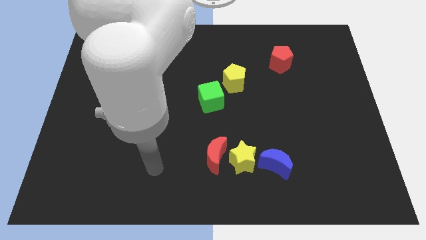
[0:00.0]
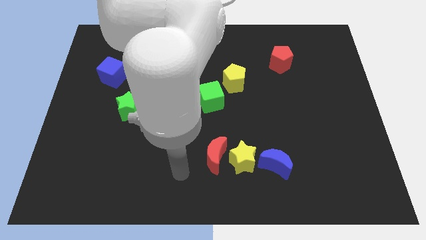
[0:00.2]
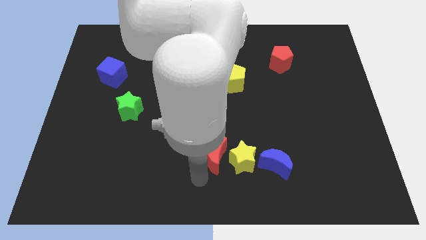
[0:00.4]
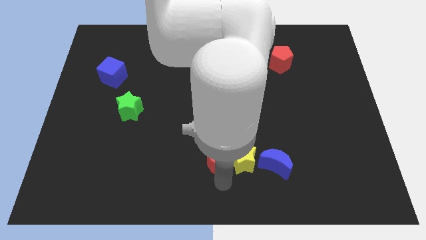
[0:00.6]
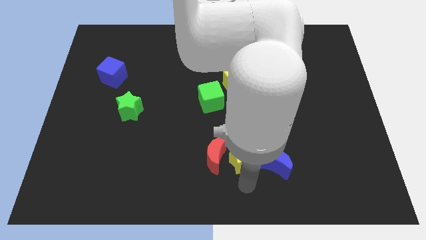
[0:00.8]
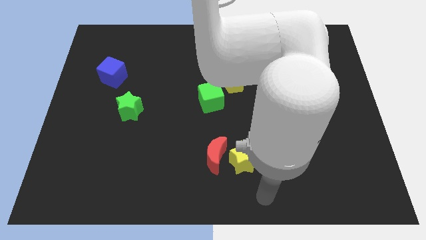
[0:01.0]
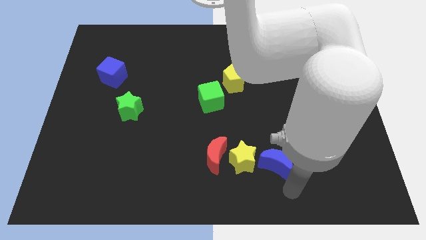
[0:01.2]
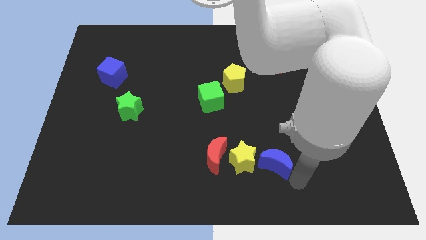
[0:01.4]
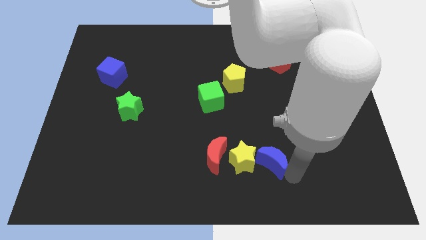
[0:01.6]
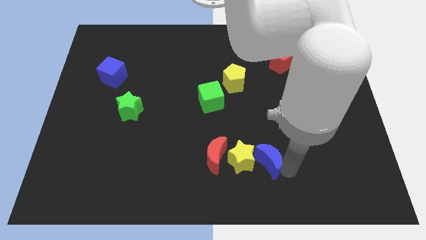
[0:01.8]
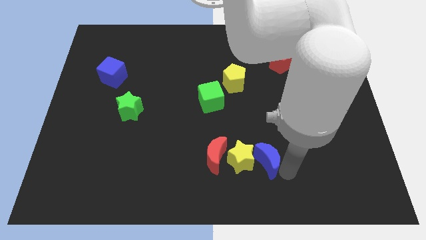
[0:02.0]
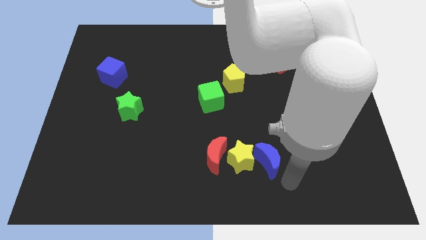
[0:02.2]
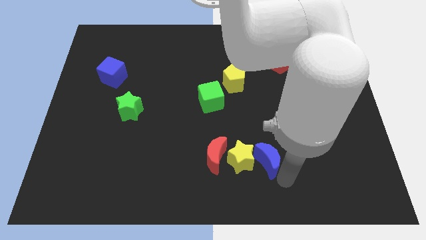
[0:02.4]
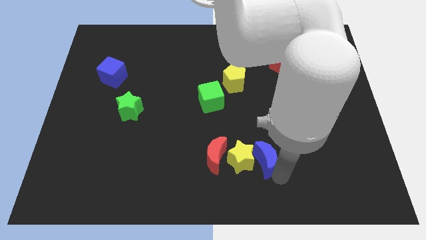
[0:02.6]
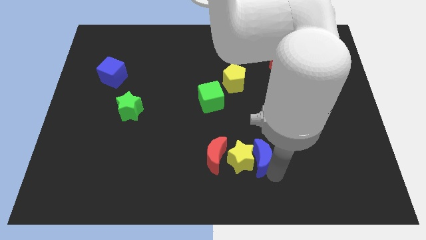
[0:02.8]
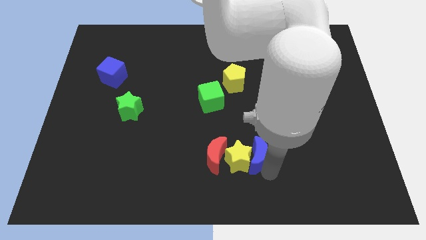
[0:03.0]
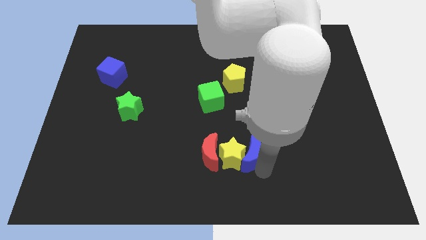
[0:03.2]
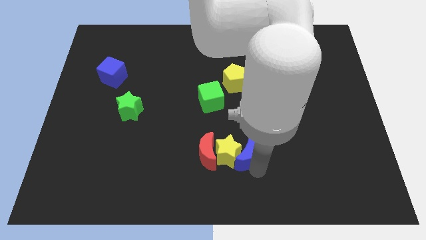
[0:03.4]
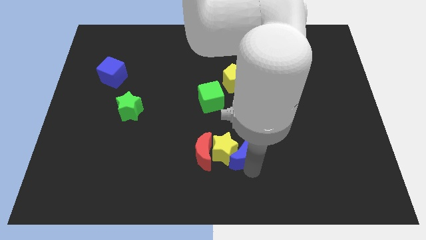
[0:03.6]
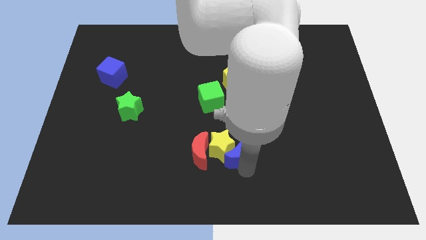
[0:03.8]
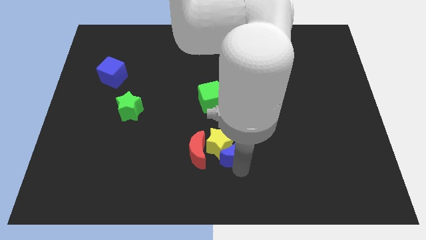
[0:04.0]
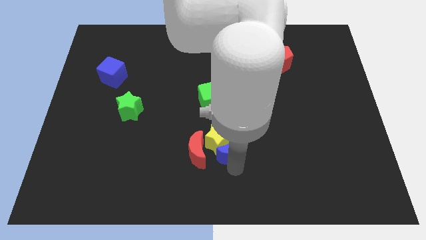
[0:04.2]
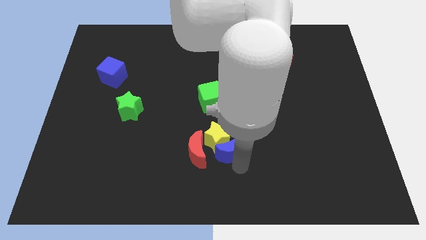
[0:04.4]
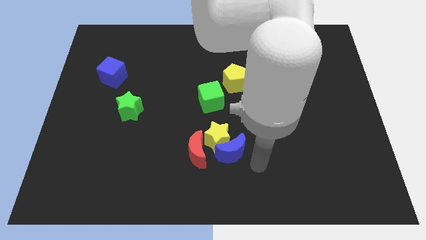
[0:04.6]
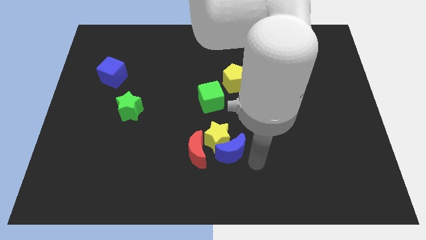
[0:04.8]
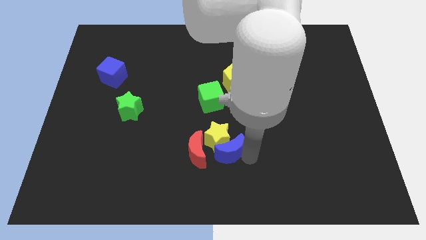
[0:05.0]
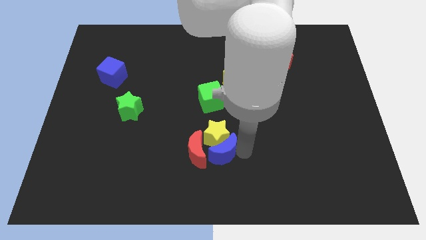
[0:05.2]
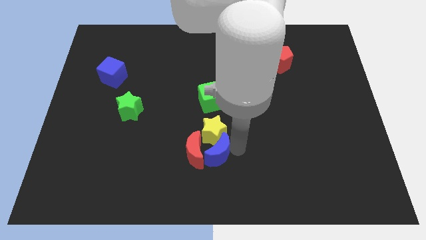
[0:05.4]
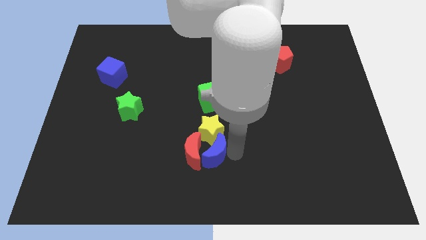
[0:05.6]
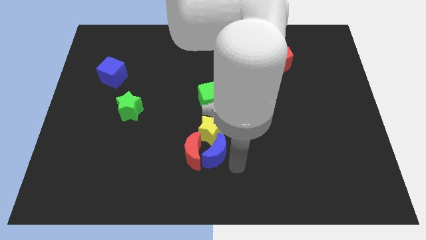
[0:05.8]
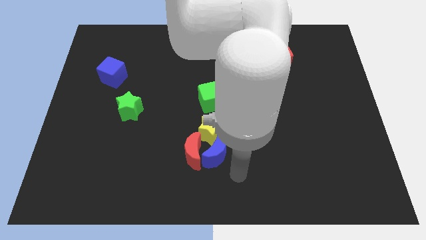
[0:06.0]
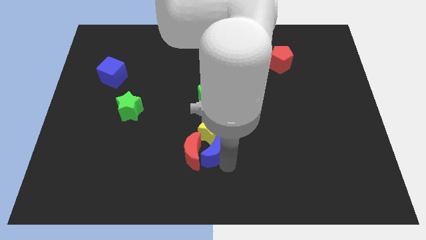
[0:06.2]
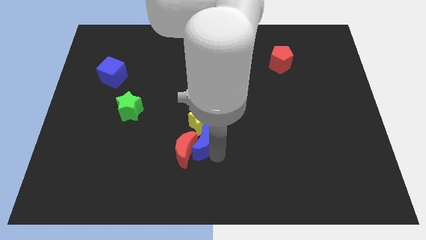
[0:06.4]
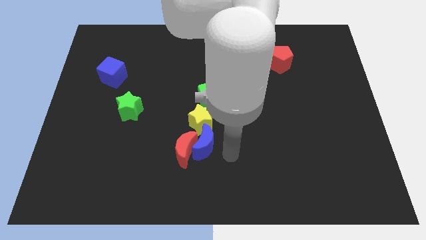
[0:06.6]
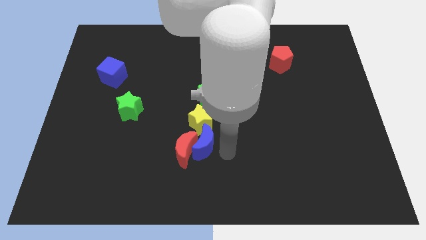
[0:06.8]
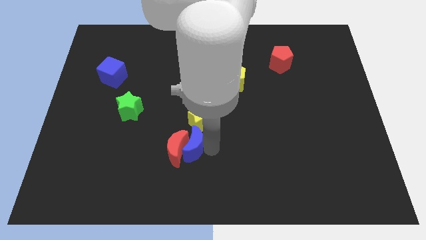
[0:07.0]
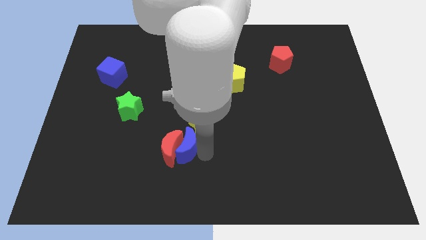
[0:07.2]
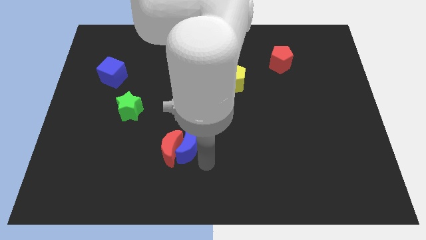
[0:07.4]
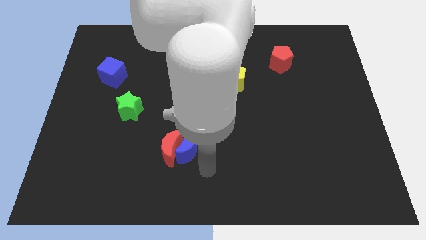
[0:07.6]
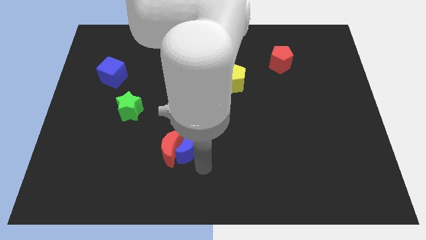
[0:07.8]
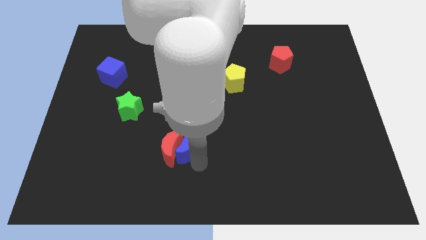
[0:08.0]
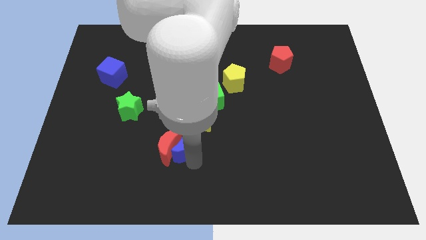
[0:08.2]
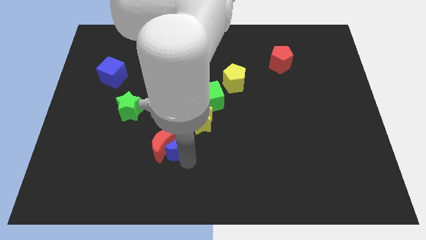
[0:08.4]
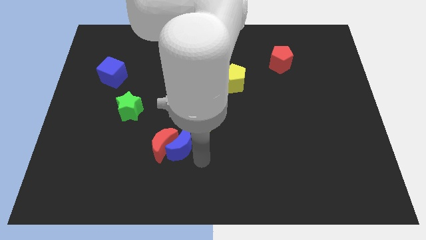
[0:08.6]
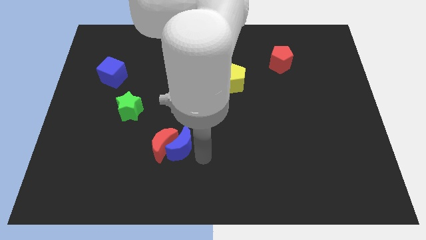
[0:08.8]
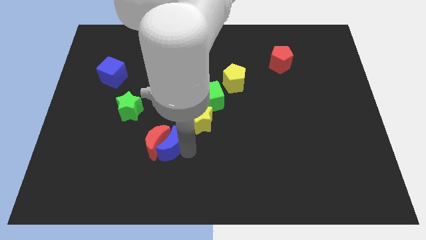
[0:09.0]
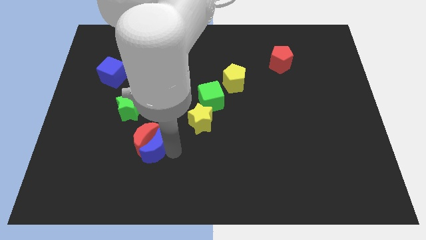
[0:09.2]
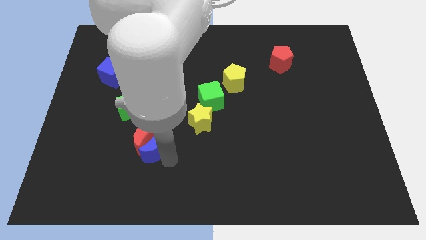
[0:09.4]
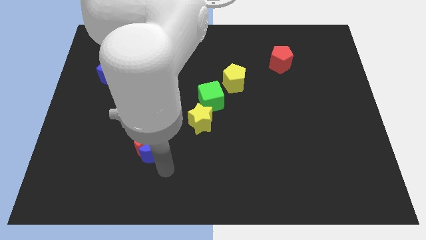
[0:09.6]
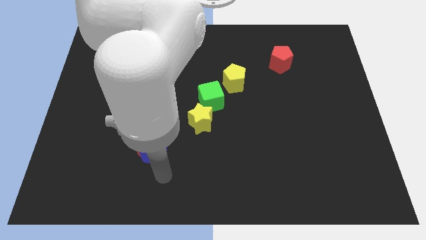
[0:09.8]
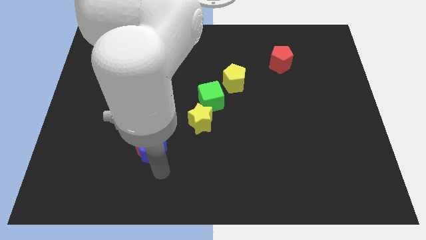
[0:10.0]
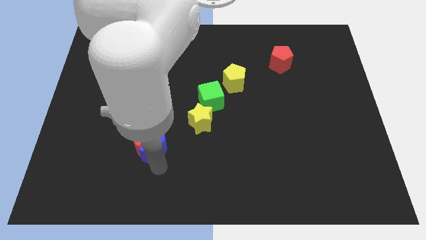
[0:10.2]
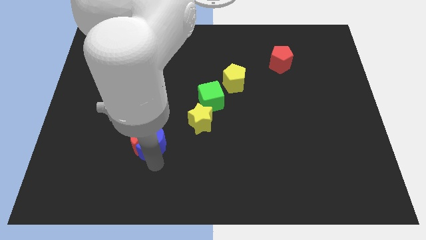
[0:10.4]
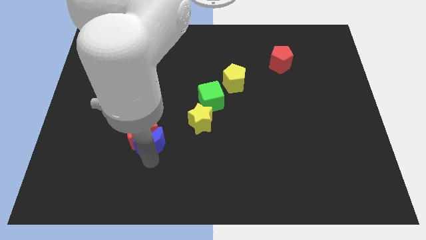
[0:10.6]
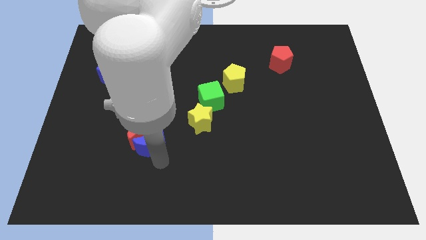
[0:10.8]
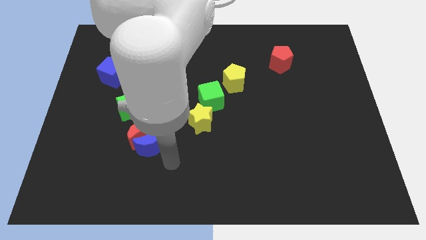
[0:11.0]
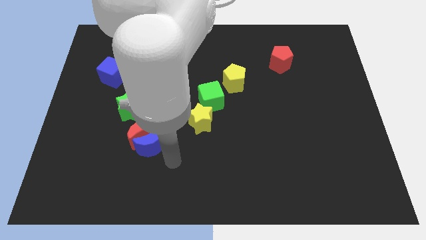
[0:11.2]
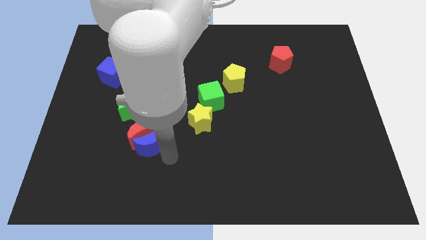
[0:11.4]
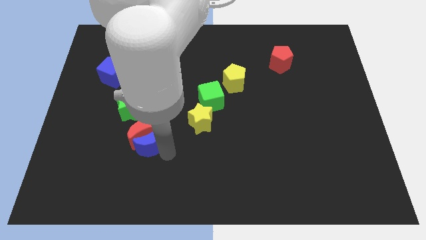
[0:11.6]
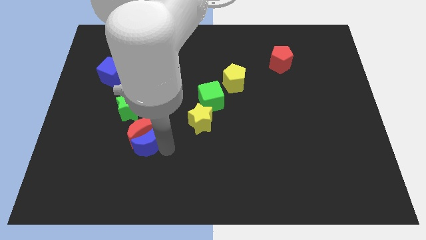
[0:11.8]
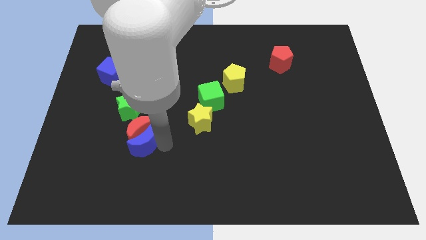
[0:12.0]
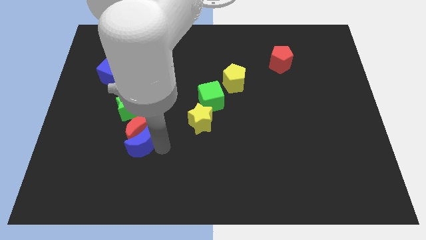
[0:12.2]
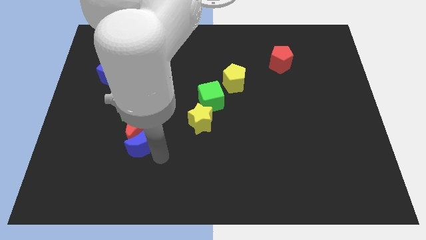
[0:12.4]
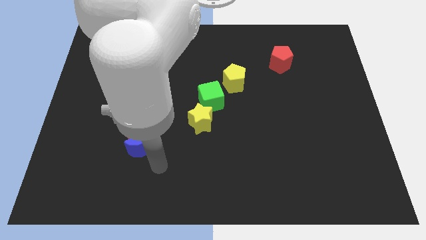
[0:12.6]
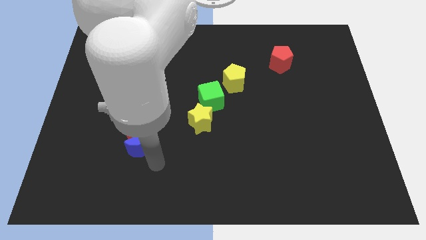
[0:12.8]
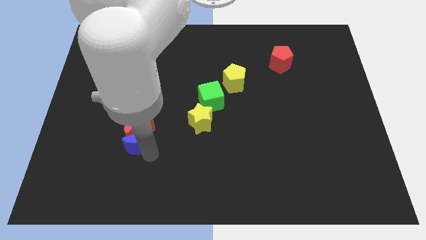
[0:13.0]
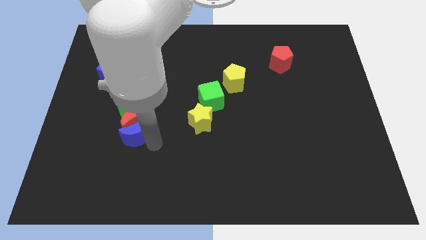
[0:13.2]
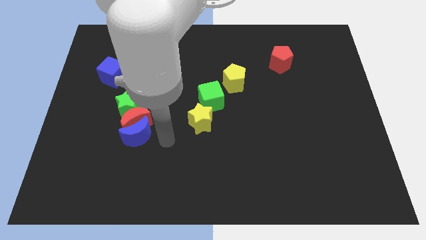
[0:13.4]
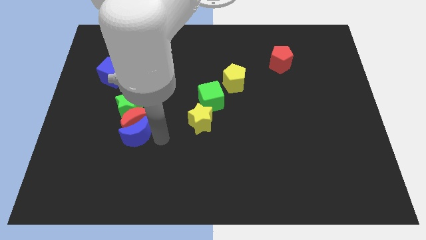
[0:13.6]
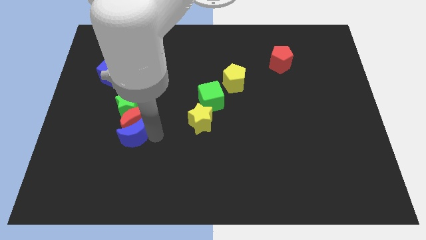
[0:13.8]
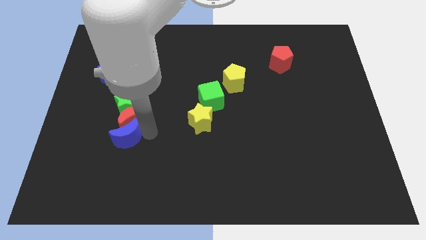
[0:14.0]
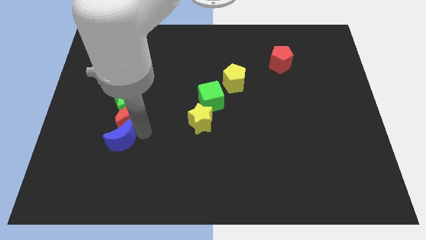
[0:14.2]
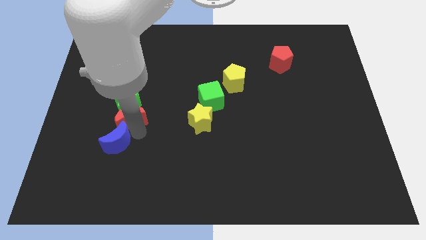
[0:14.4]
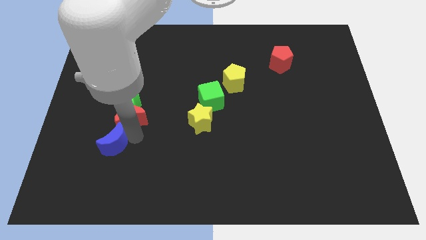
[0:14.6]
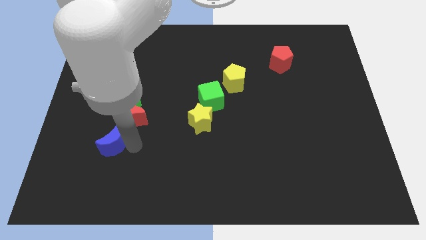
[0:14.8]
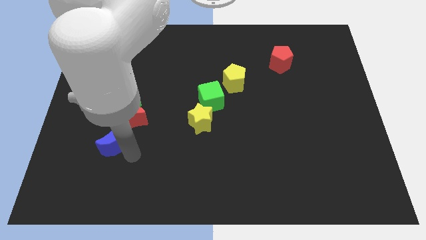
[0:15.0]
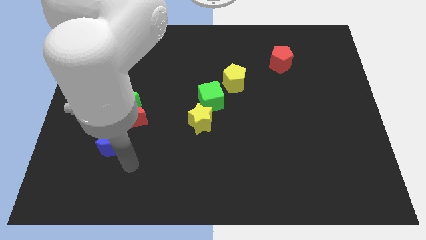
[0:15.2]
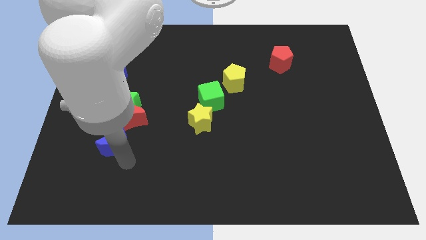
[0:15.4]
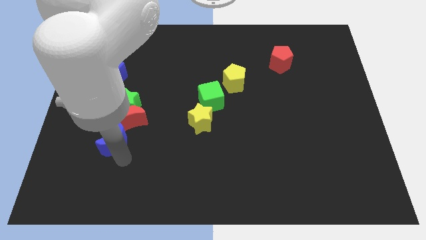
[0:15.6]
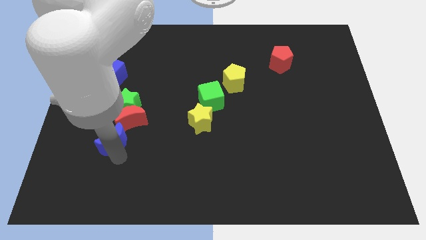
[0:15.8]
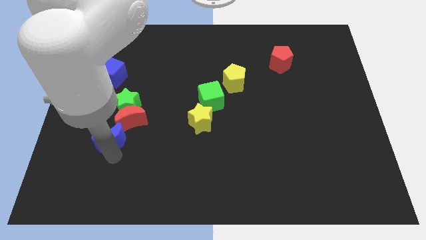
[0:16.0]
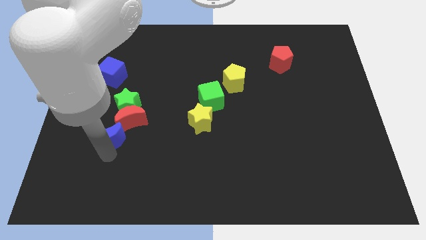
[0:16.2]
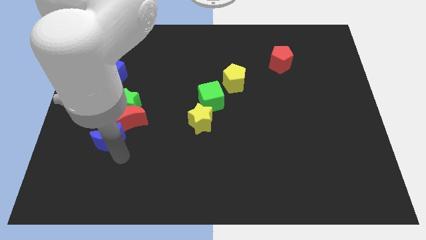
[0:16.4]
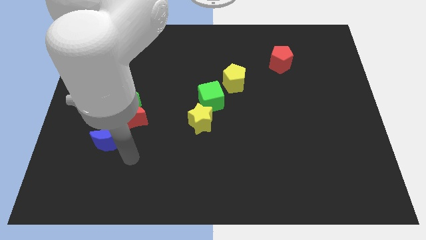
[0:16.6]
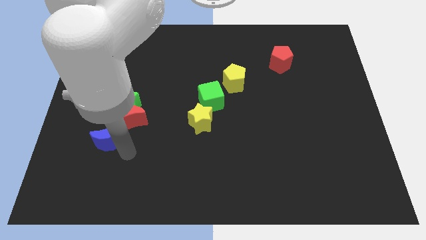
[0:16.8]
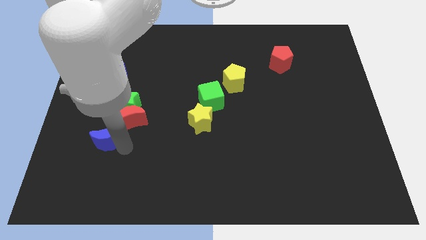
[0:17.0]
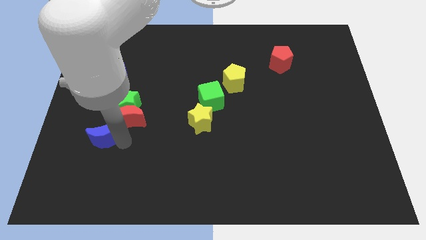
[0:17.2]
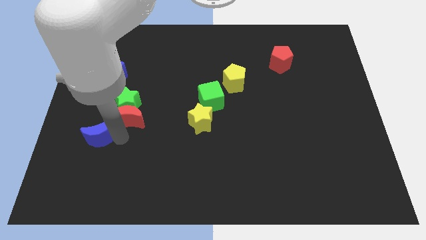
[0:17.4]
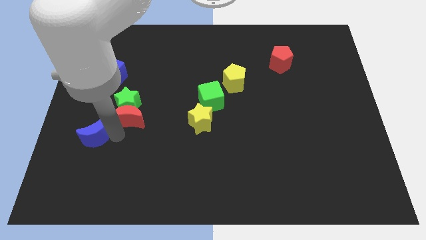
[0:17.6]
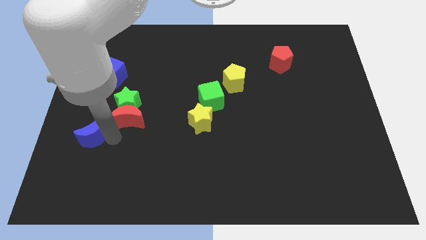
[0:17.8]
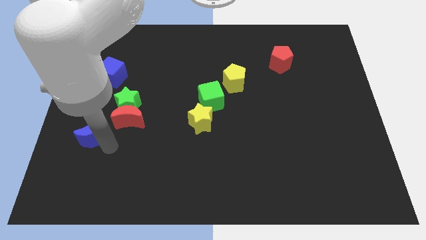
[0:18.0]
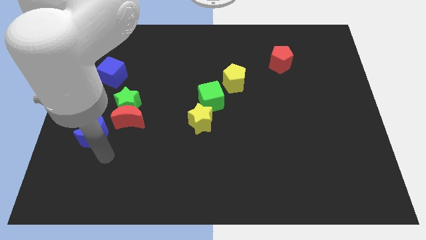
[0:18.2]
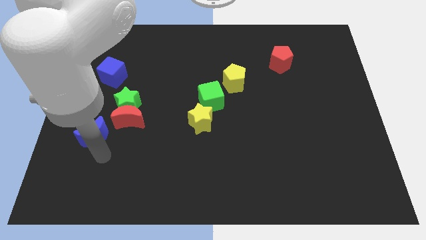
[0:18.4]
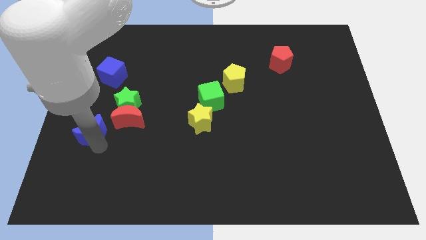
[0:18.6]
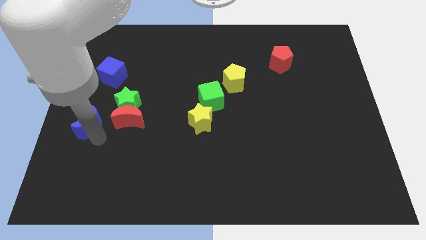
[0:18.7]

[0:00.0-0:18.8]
push the blue moon to the center left
